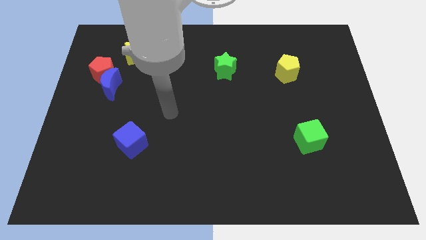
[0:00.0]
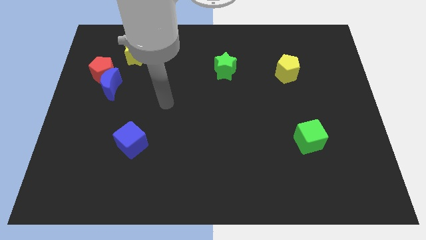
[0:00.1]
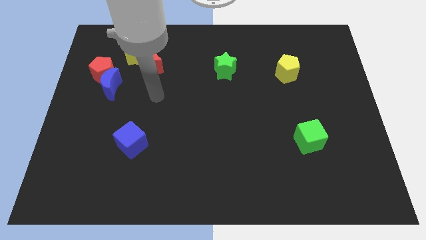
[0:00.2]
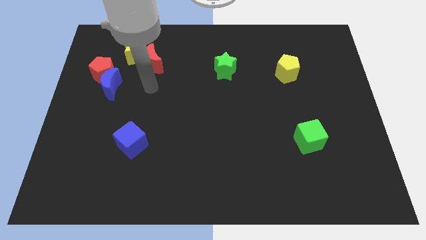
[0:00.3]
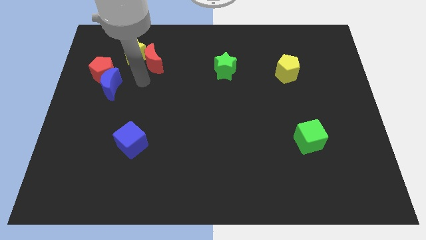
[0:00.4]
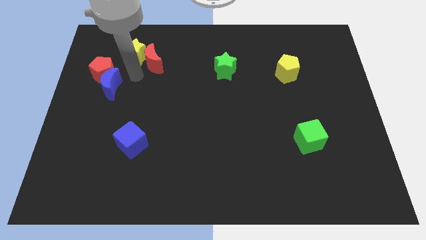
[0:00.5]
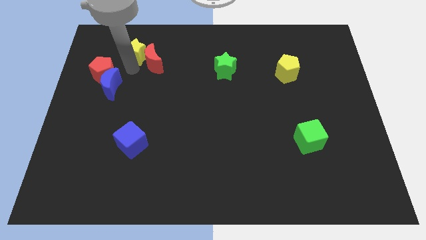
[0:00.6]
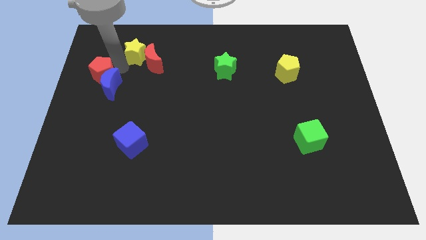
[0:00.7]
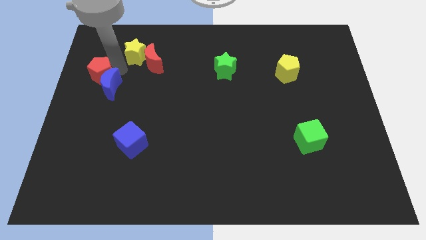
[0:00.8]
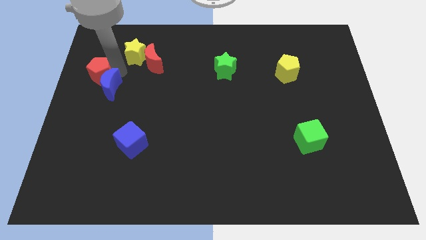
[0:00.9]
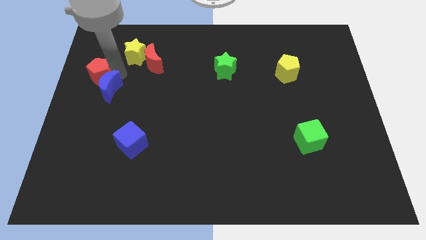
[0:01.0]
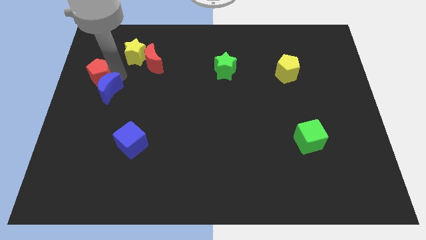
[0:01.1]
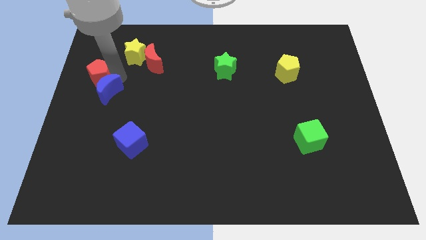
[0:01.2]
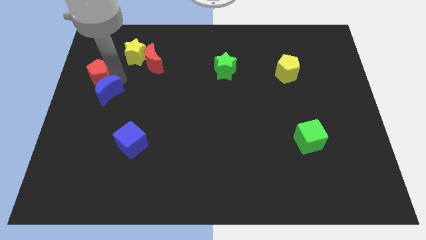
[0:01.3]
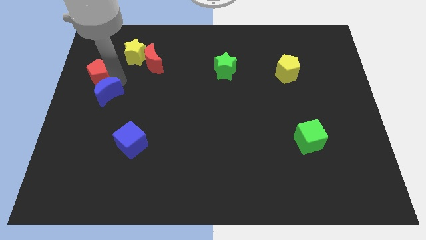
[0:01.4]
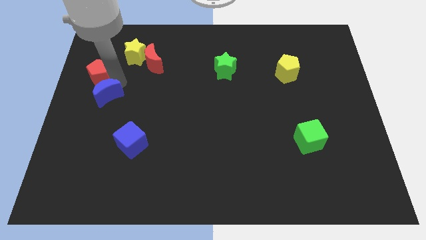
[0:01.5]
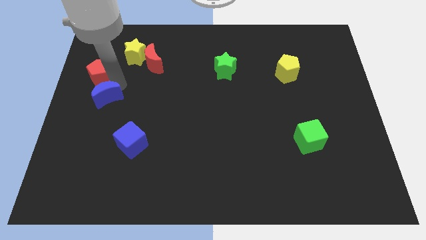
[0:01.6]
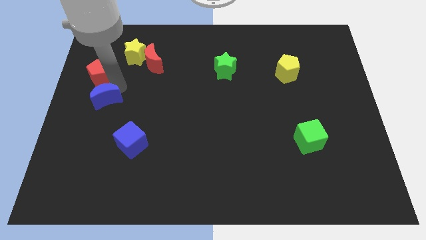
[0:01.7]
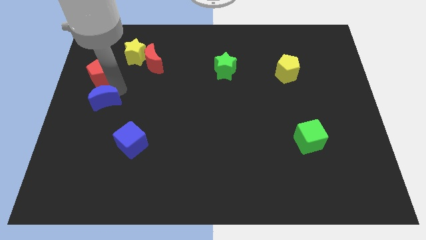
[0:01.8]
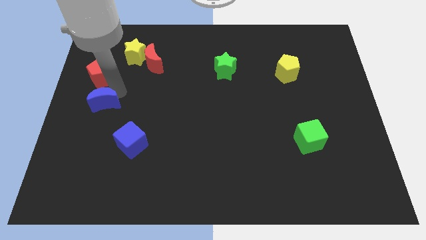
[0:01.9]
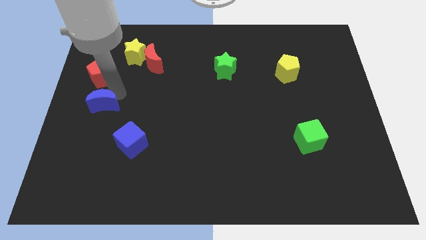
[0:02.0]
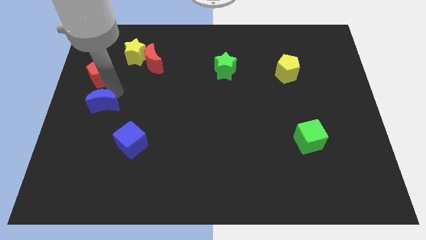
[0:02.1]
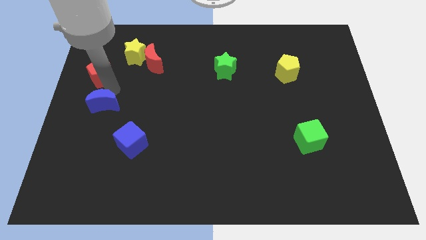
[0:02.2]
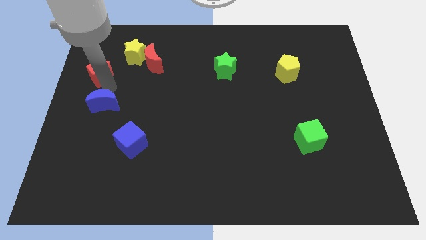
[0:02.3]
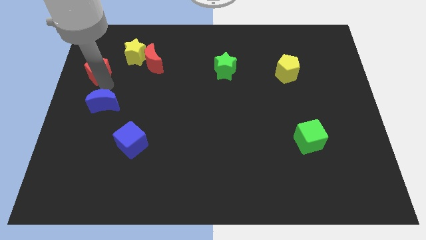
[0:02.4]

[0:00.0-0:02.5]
move the blue moon away from the red pentagon

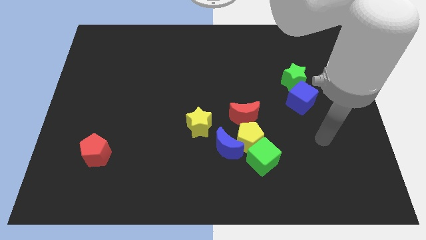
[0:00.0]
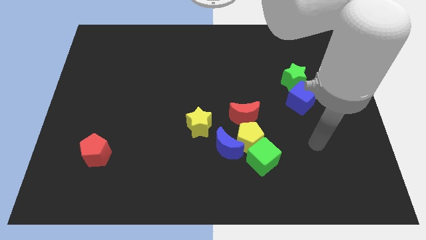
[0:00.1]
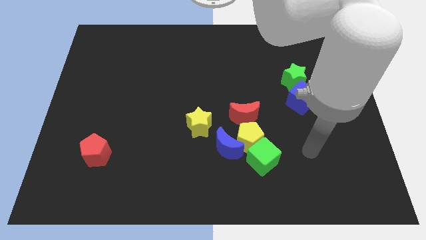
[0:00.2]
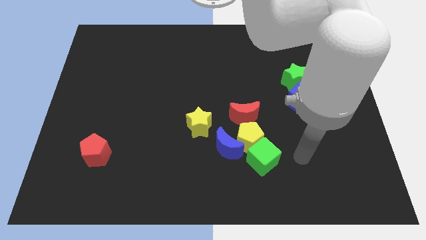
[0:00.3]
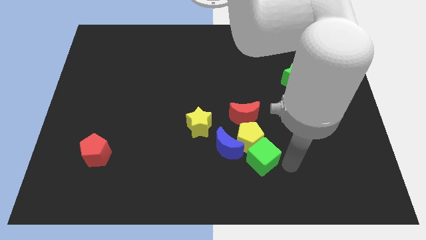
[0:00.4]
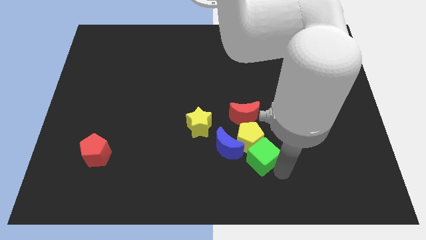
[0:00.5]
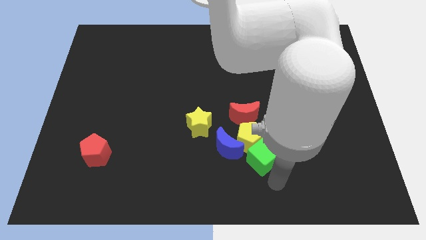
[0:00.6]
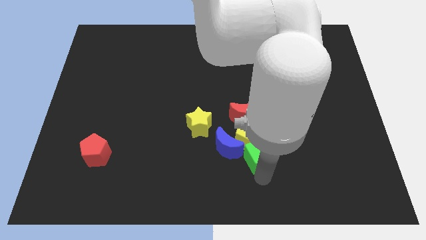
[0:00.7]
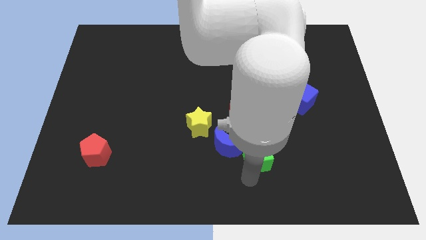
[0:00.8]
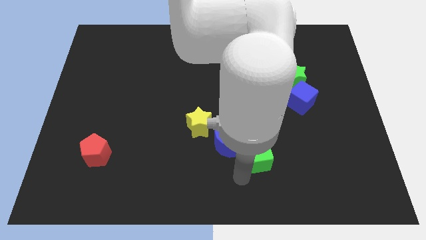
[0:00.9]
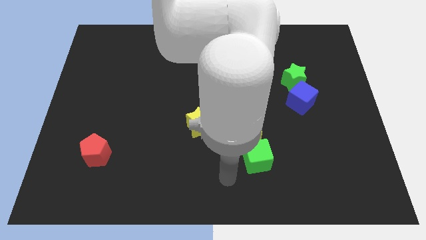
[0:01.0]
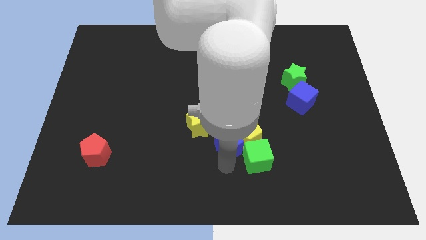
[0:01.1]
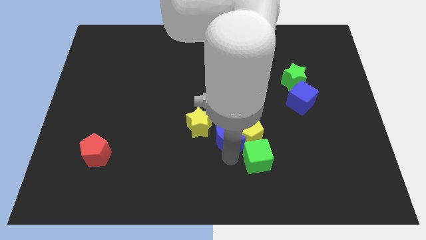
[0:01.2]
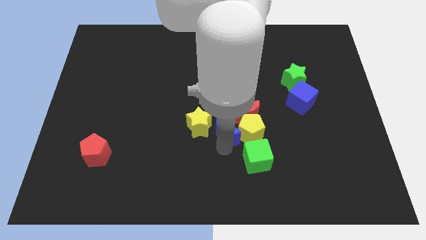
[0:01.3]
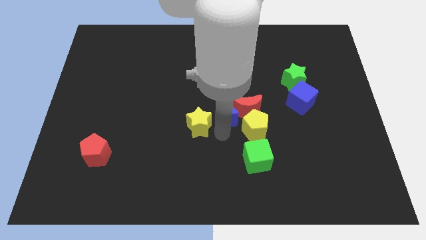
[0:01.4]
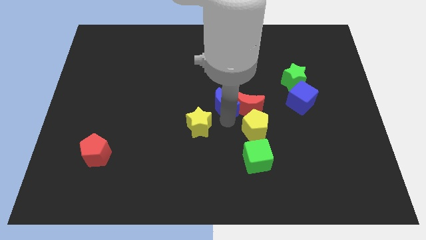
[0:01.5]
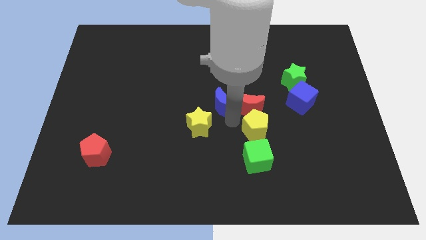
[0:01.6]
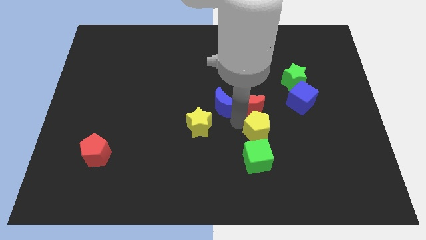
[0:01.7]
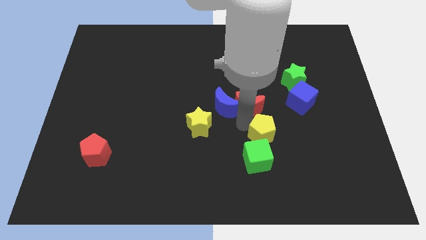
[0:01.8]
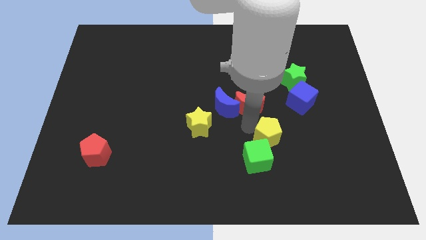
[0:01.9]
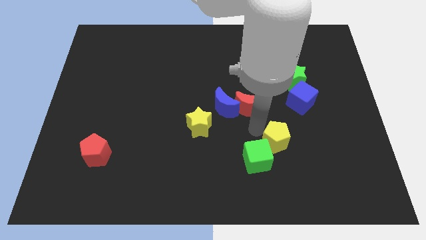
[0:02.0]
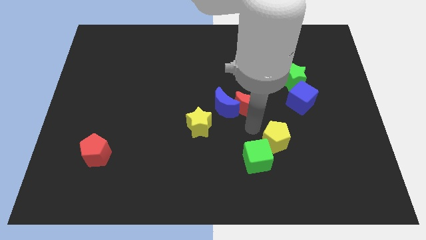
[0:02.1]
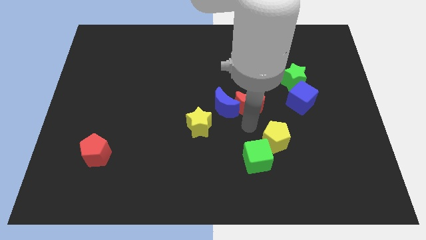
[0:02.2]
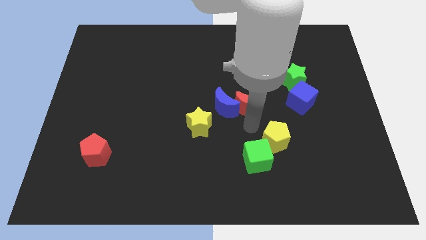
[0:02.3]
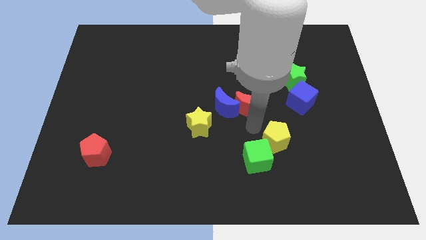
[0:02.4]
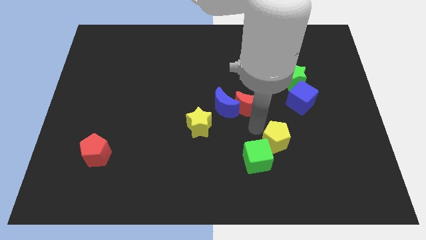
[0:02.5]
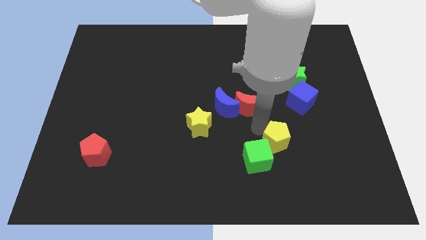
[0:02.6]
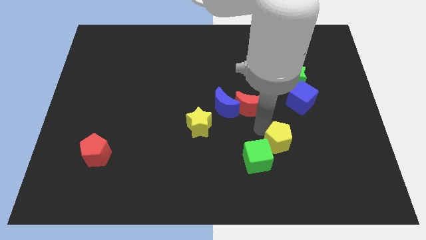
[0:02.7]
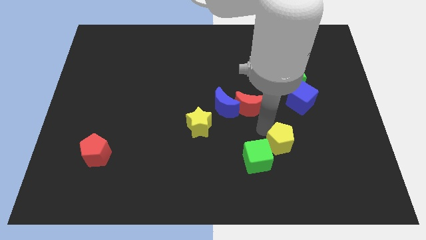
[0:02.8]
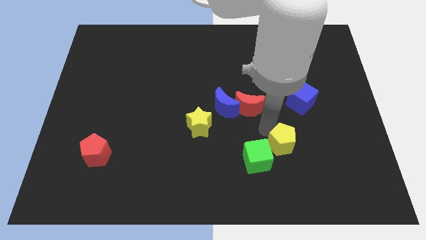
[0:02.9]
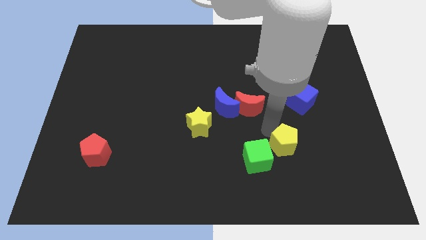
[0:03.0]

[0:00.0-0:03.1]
move the yellow pentagon away from the clump

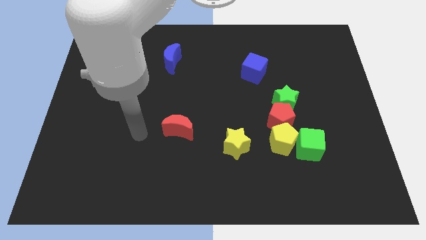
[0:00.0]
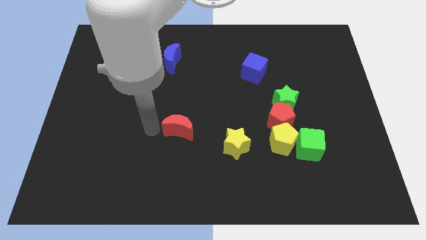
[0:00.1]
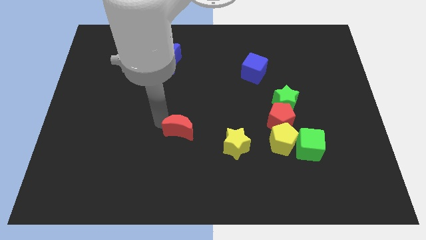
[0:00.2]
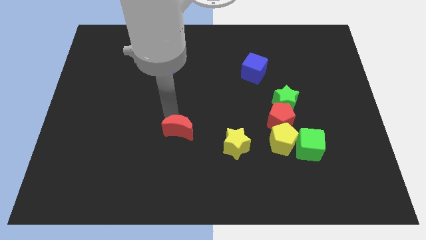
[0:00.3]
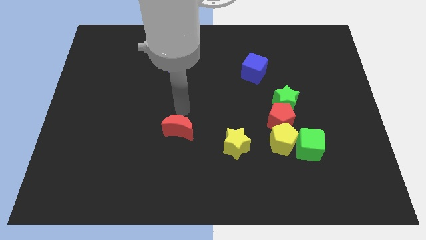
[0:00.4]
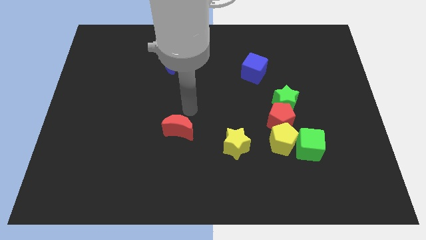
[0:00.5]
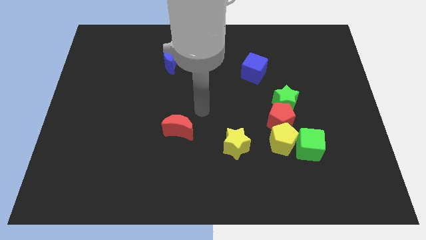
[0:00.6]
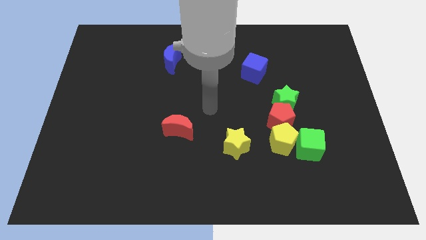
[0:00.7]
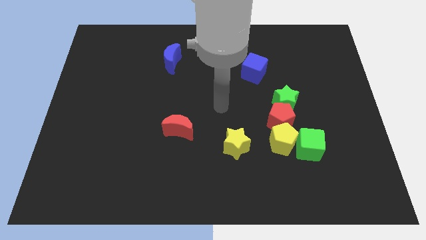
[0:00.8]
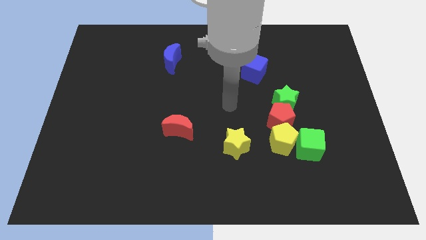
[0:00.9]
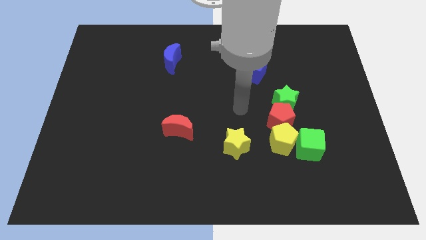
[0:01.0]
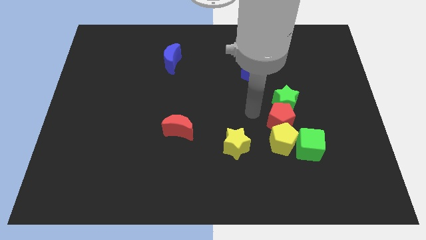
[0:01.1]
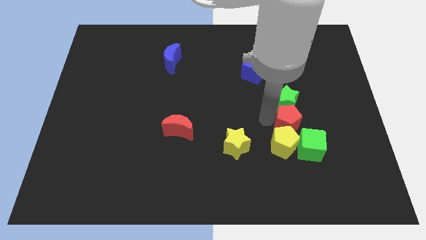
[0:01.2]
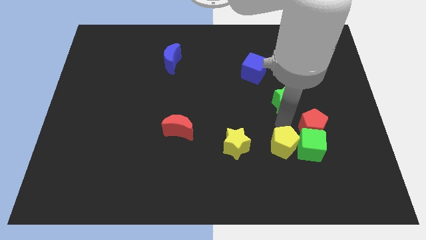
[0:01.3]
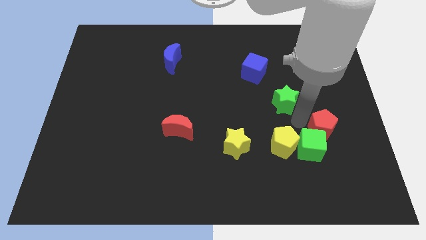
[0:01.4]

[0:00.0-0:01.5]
separate the green star from the red pentagon

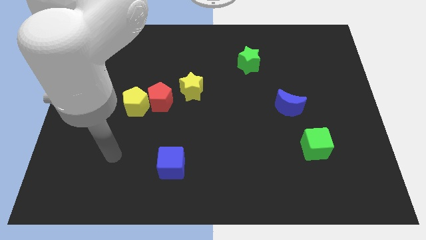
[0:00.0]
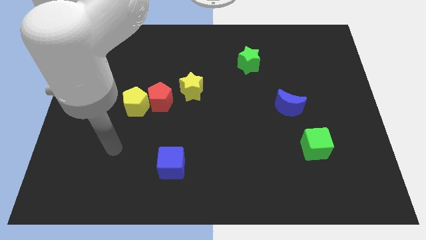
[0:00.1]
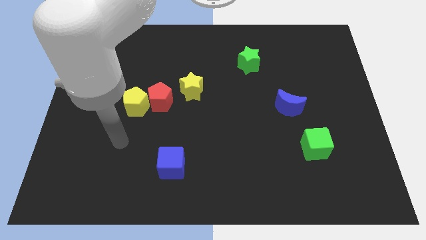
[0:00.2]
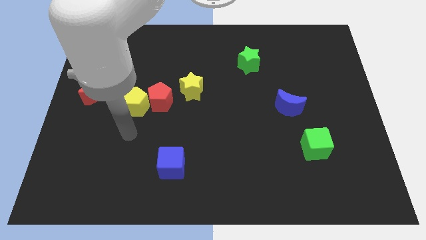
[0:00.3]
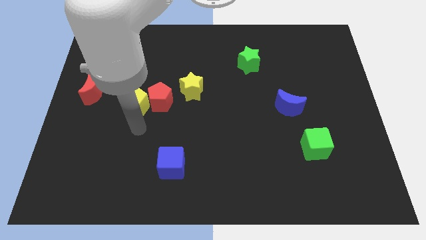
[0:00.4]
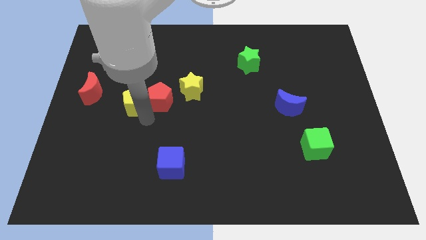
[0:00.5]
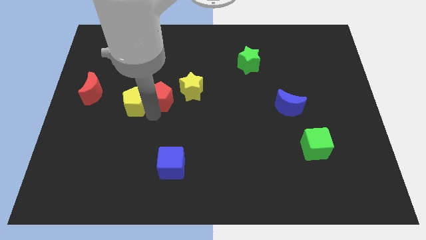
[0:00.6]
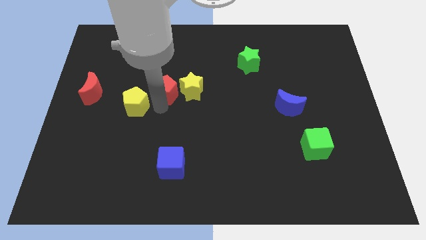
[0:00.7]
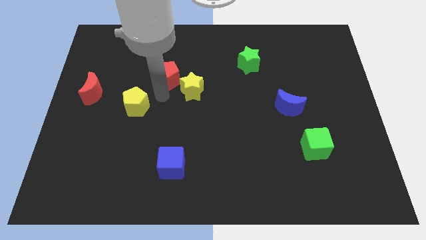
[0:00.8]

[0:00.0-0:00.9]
move the yellow pentagon away from the red pentagon

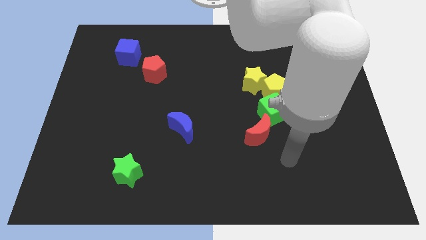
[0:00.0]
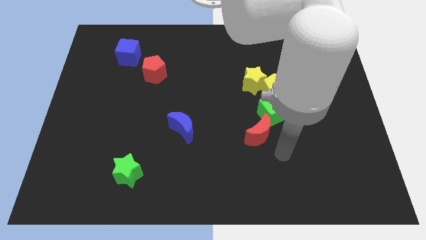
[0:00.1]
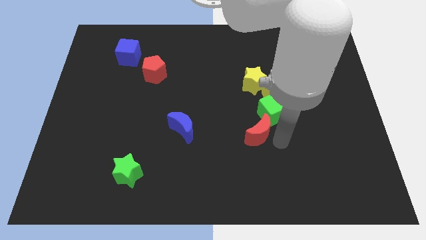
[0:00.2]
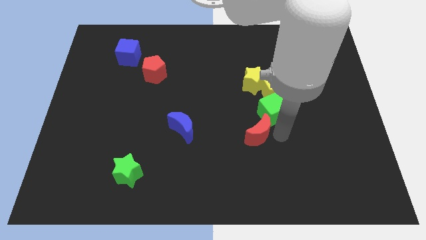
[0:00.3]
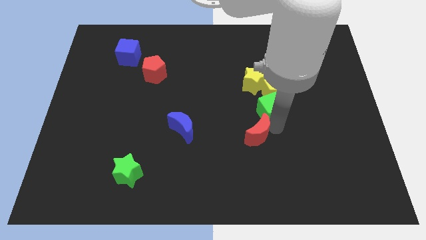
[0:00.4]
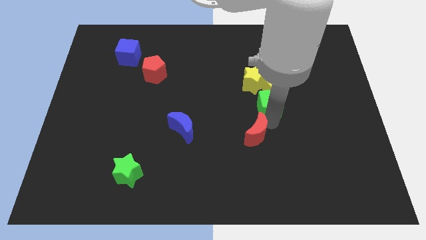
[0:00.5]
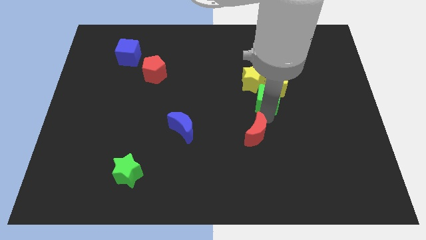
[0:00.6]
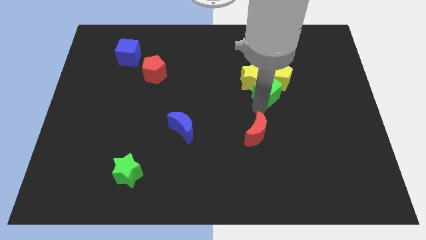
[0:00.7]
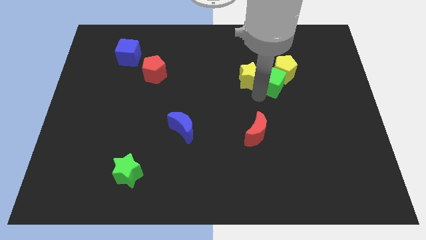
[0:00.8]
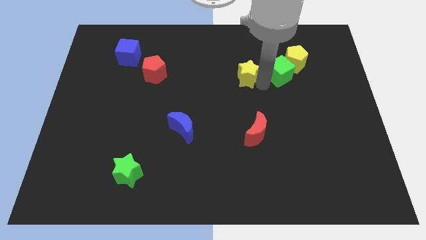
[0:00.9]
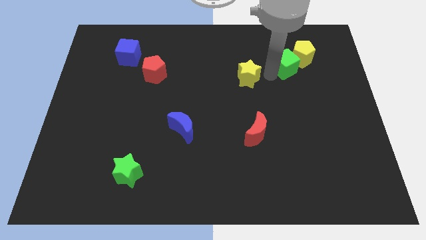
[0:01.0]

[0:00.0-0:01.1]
separate the yellow pentagon from the yellow star and green cube

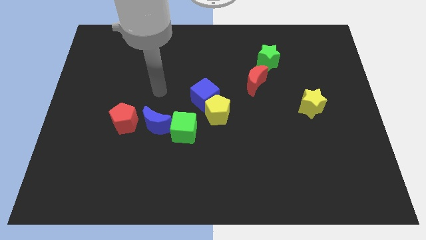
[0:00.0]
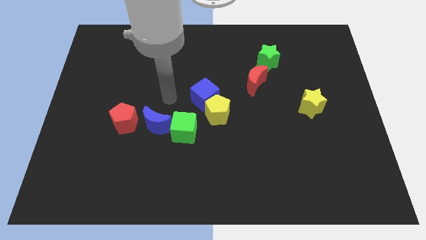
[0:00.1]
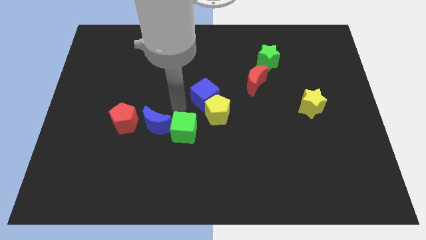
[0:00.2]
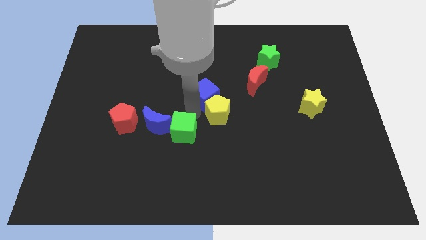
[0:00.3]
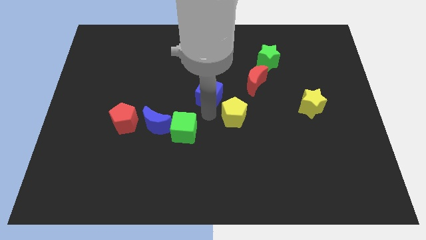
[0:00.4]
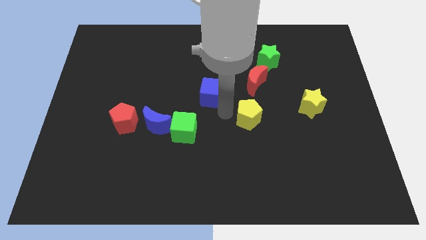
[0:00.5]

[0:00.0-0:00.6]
pull the blue cube apart from the yellow pentagon
